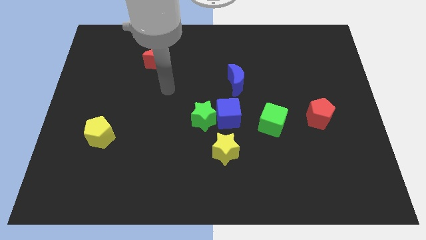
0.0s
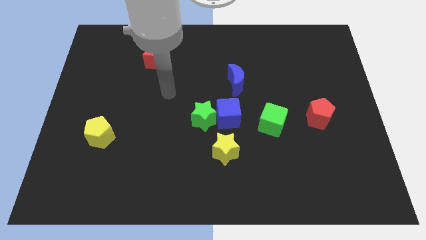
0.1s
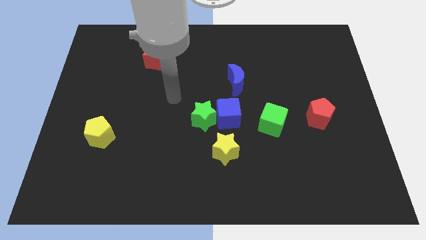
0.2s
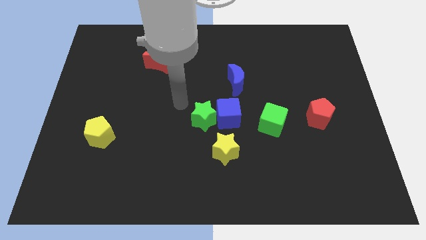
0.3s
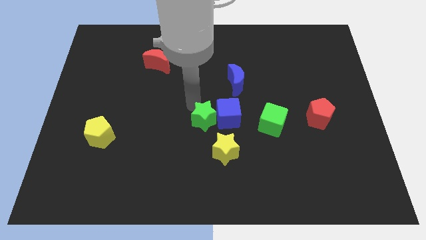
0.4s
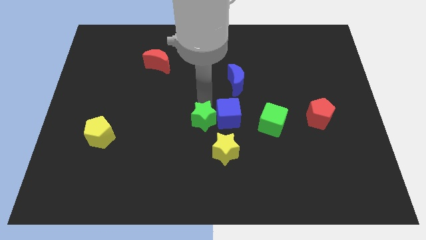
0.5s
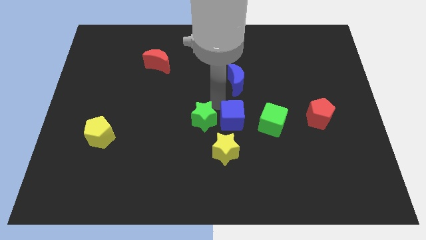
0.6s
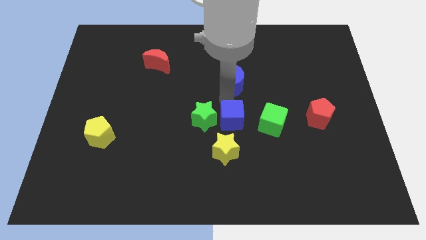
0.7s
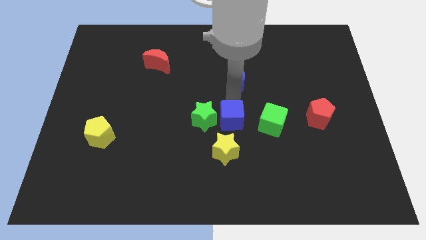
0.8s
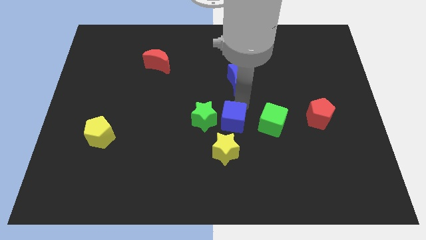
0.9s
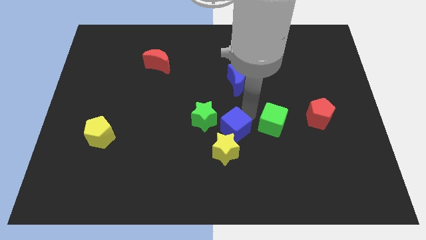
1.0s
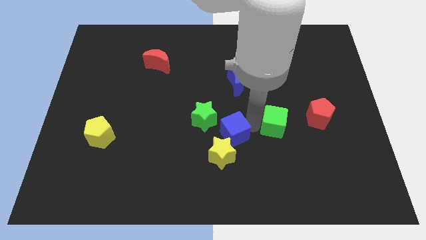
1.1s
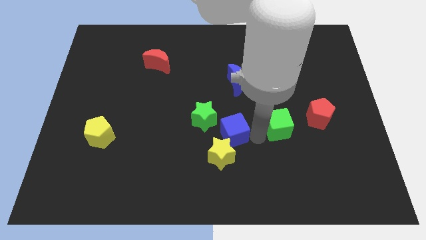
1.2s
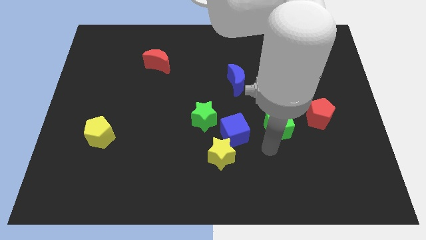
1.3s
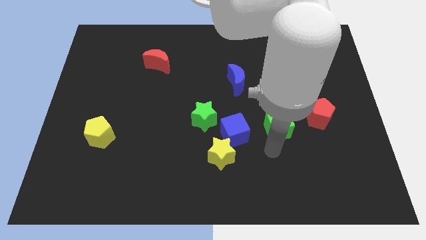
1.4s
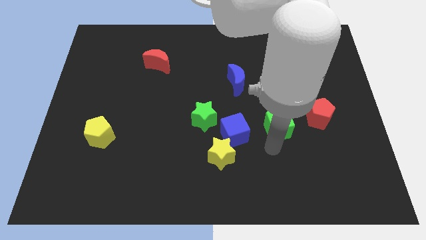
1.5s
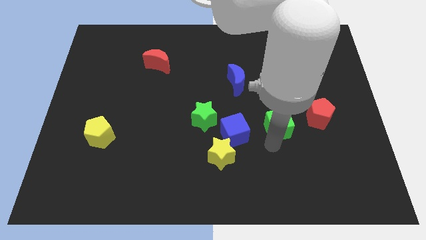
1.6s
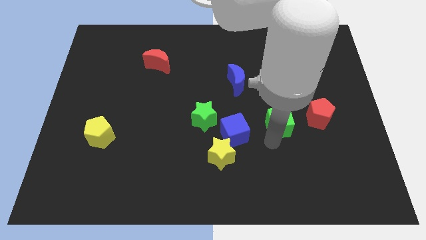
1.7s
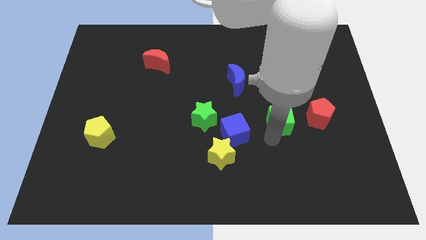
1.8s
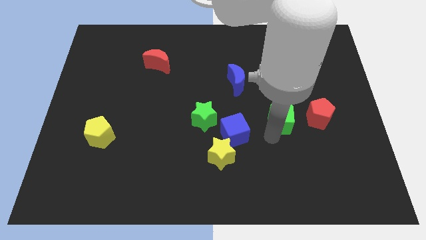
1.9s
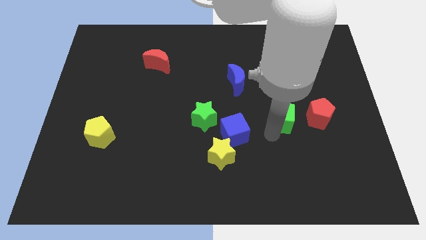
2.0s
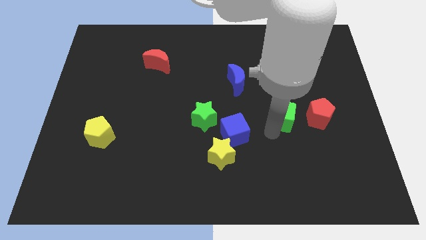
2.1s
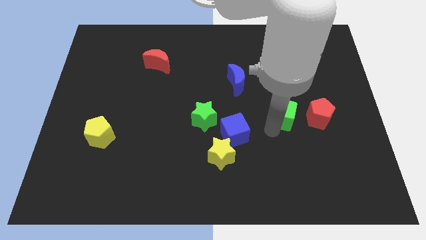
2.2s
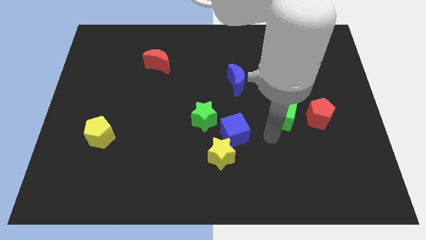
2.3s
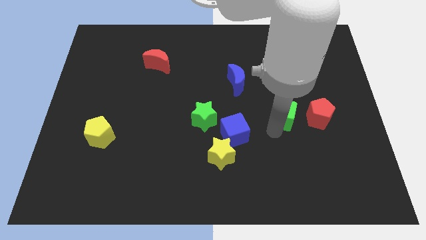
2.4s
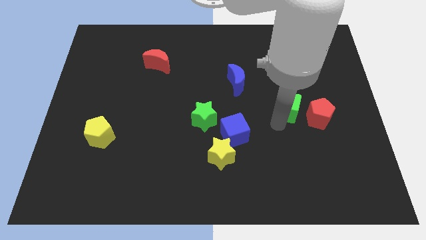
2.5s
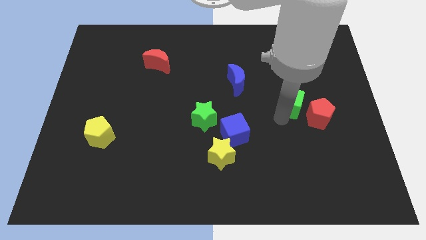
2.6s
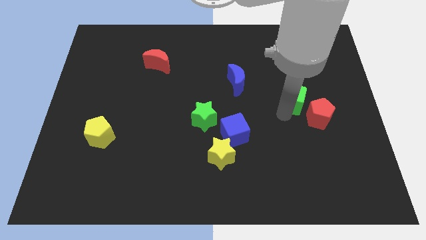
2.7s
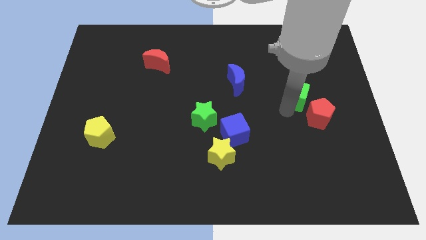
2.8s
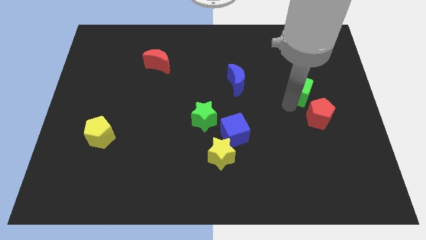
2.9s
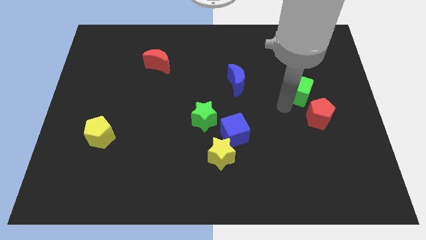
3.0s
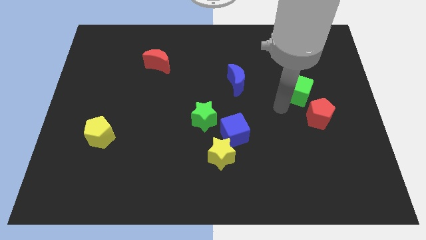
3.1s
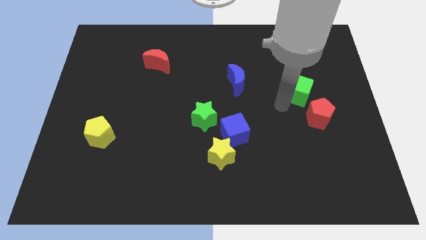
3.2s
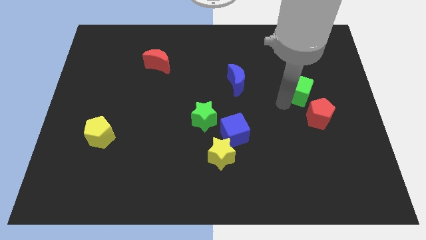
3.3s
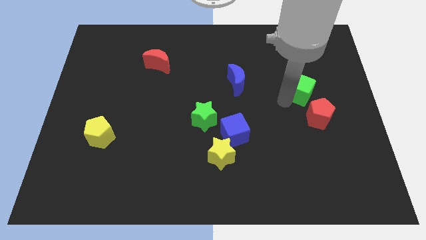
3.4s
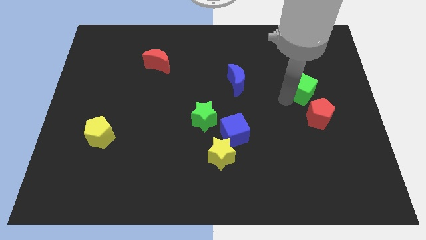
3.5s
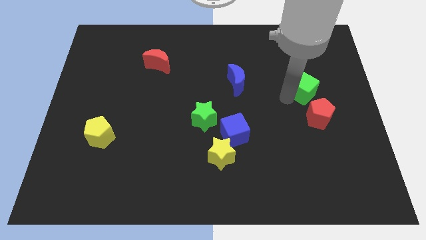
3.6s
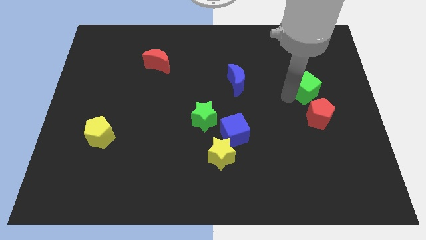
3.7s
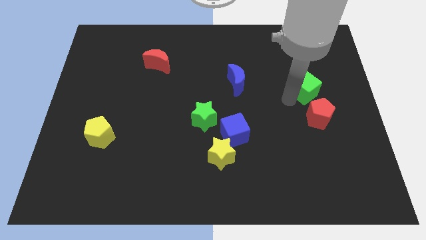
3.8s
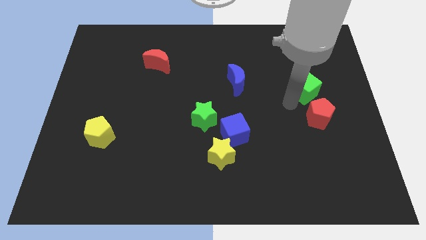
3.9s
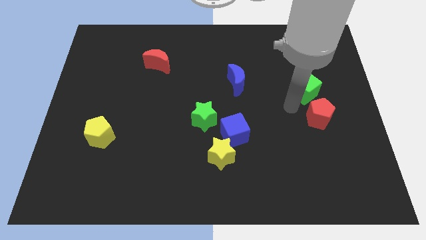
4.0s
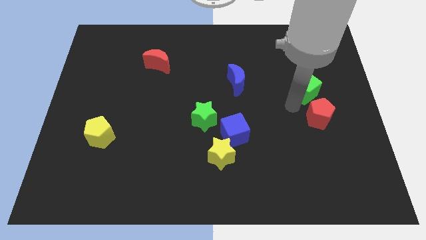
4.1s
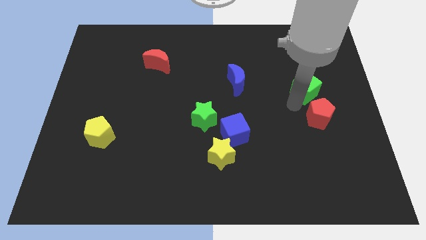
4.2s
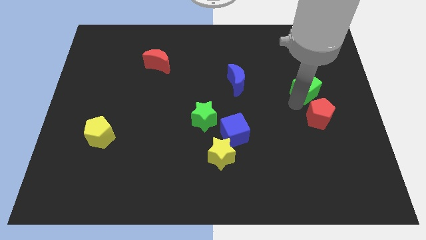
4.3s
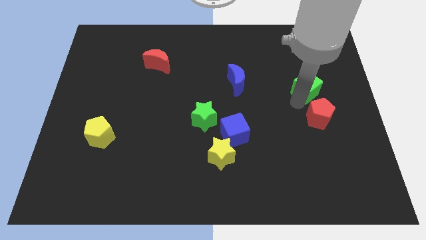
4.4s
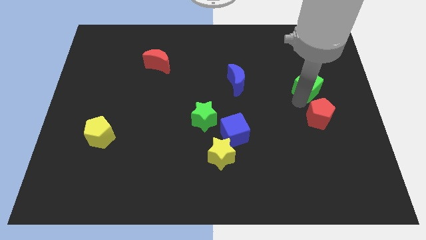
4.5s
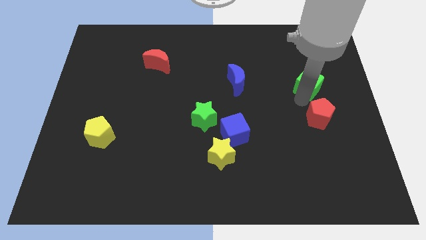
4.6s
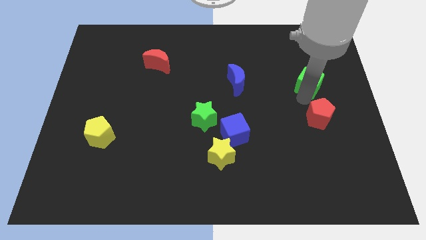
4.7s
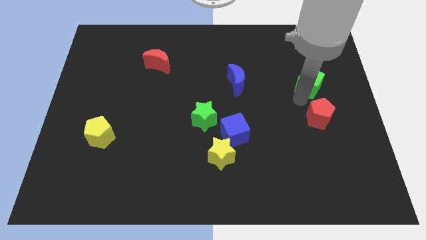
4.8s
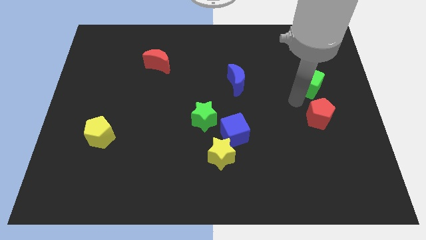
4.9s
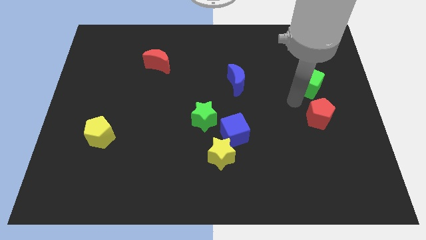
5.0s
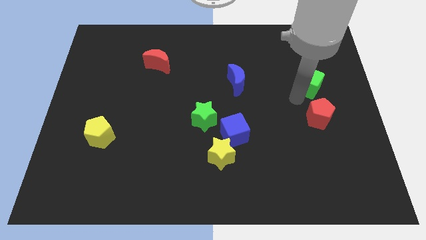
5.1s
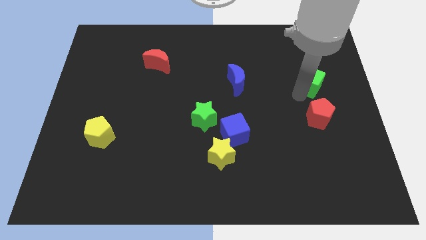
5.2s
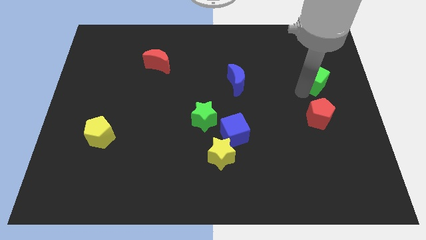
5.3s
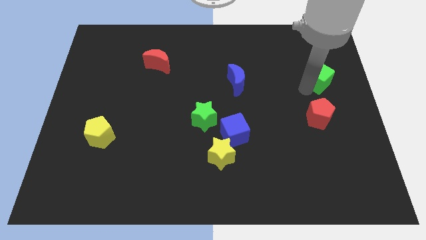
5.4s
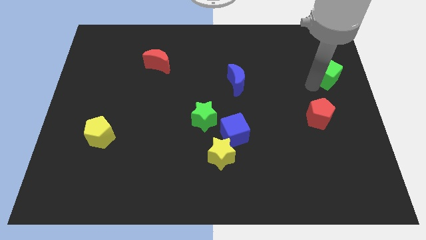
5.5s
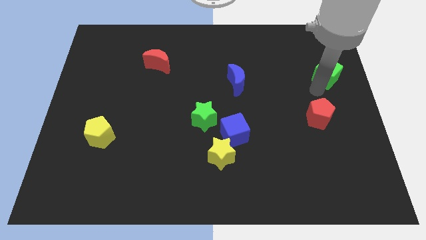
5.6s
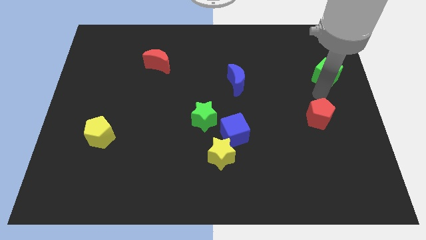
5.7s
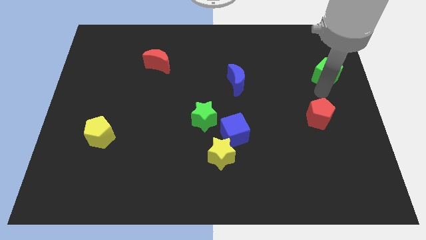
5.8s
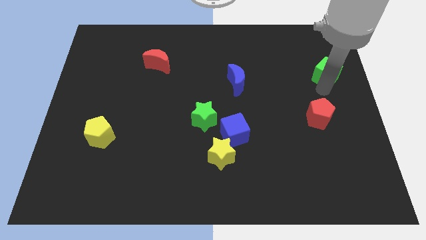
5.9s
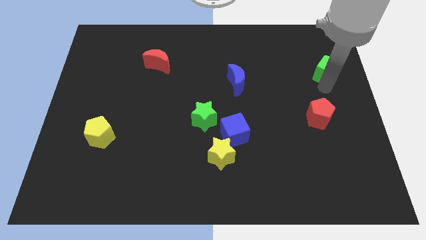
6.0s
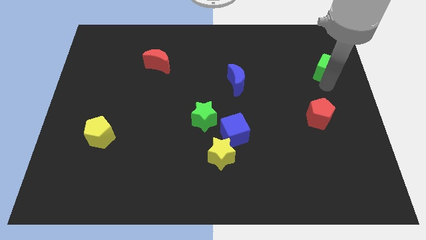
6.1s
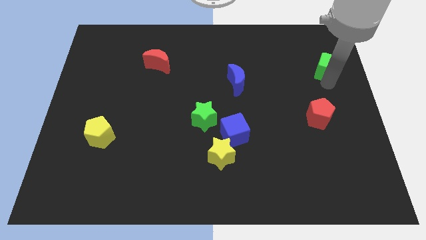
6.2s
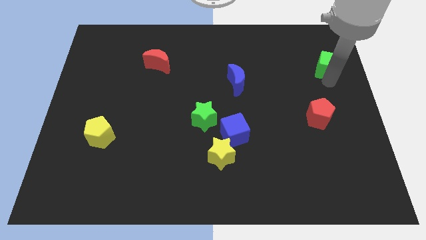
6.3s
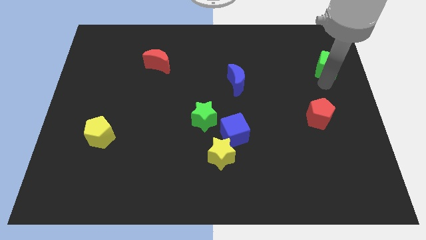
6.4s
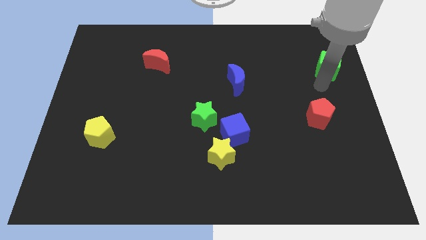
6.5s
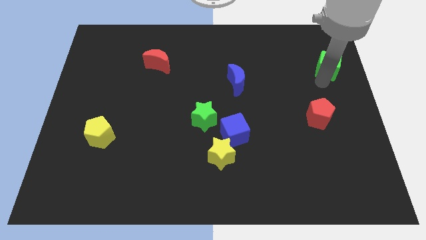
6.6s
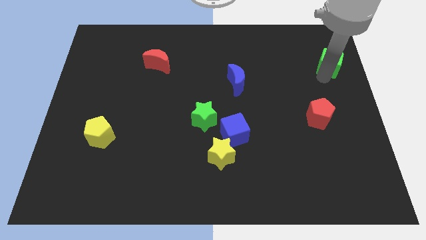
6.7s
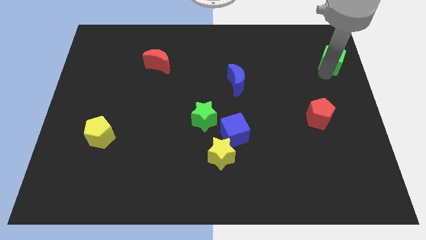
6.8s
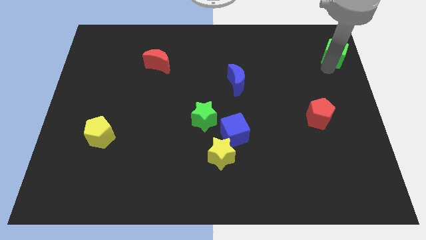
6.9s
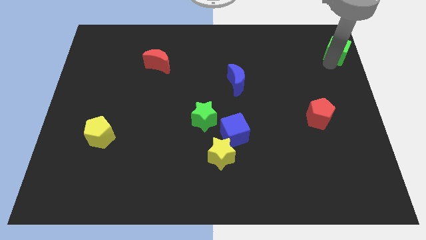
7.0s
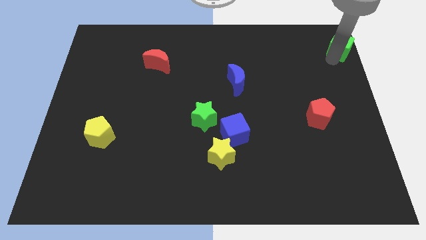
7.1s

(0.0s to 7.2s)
put the green cube to the upper right corner
